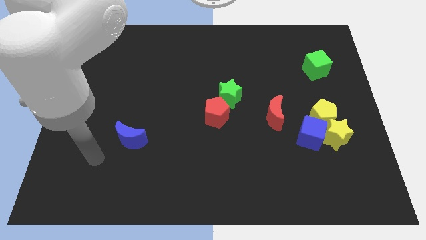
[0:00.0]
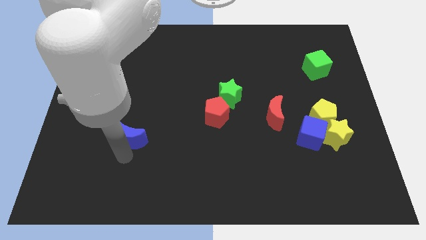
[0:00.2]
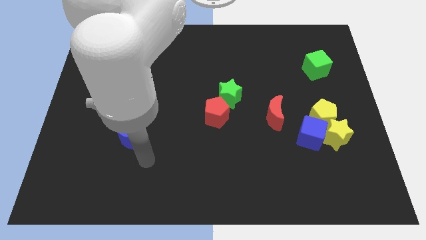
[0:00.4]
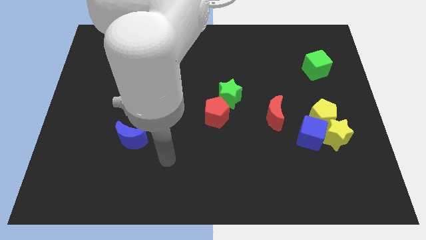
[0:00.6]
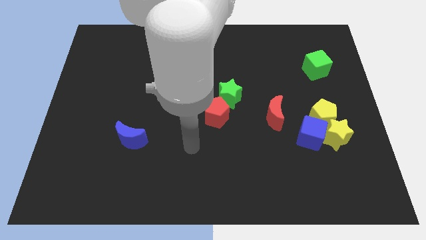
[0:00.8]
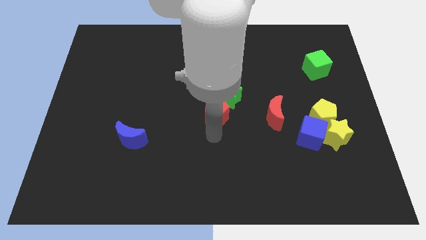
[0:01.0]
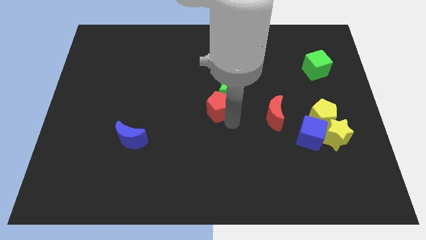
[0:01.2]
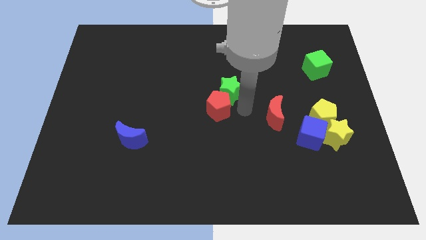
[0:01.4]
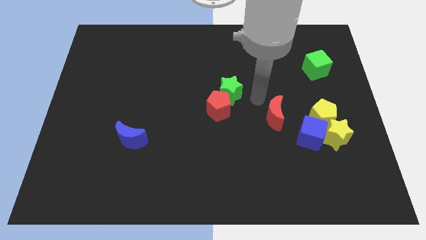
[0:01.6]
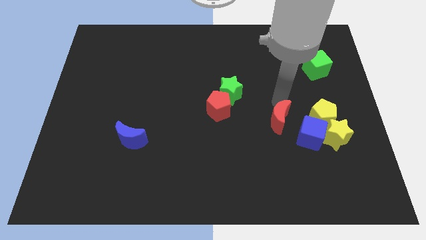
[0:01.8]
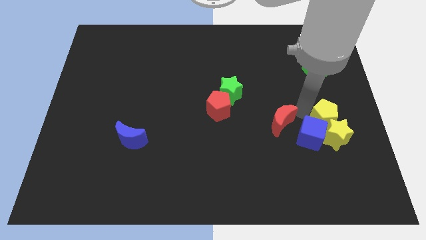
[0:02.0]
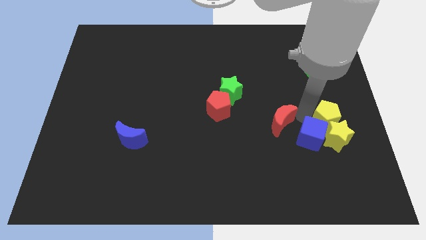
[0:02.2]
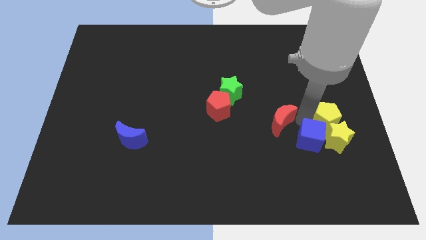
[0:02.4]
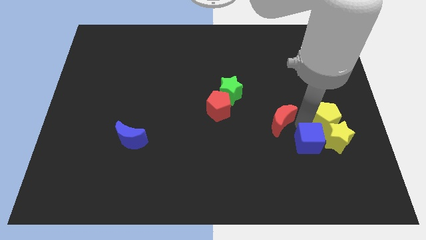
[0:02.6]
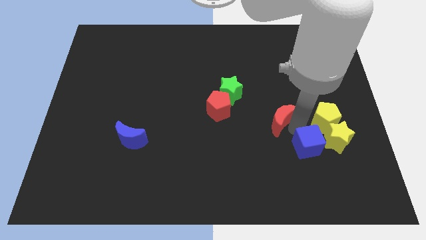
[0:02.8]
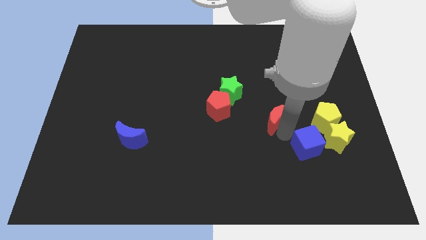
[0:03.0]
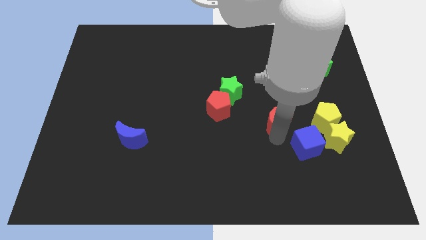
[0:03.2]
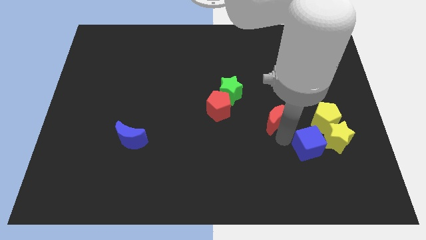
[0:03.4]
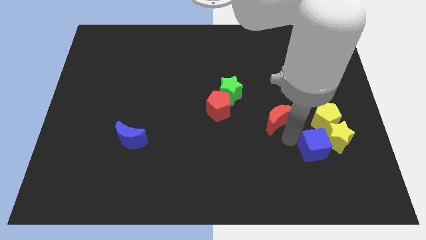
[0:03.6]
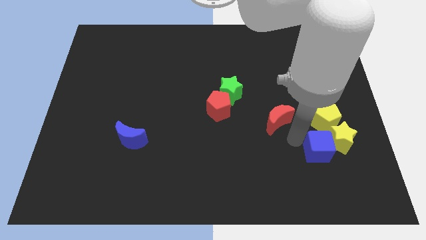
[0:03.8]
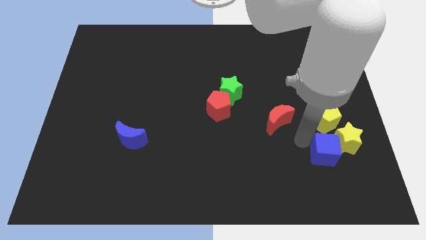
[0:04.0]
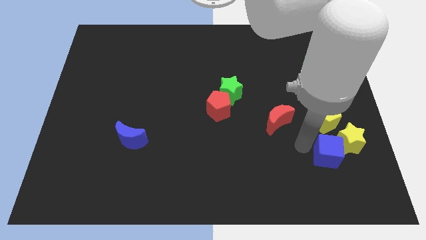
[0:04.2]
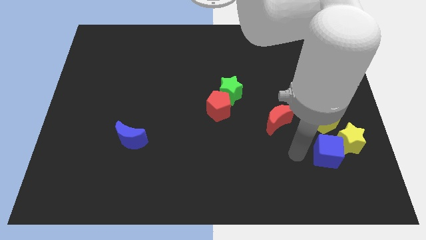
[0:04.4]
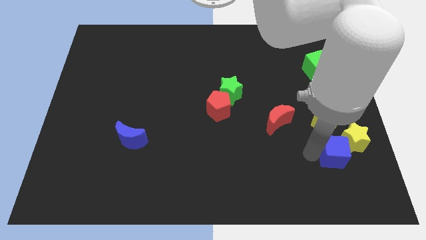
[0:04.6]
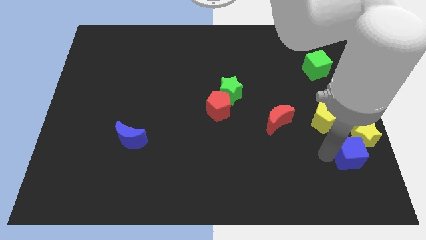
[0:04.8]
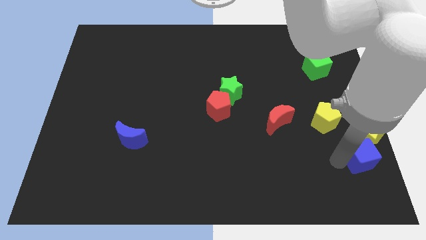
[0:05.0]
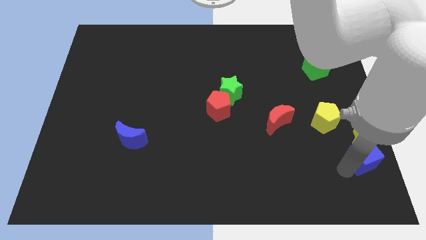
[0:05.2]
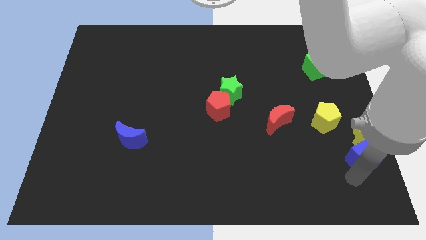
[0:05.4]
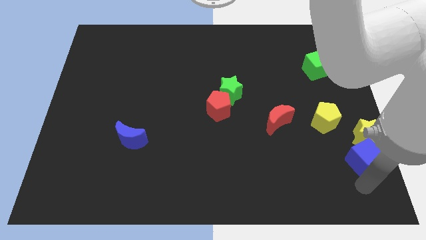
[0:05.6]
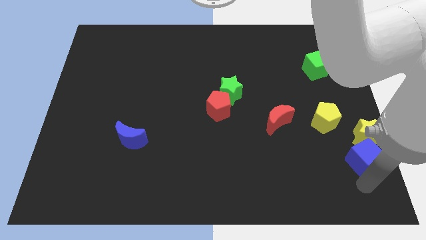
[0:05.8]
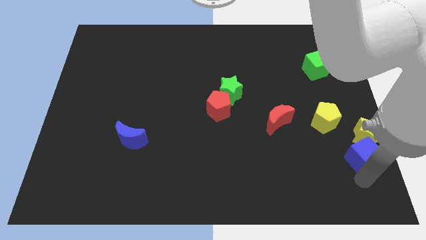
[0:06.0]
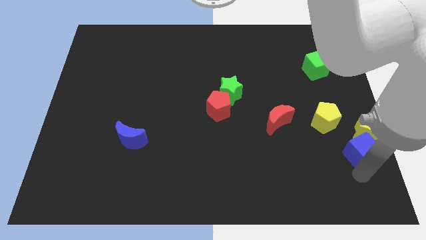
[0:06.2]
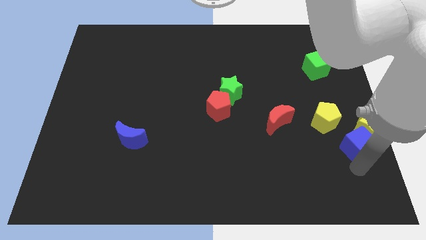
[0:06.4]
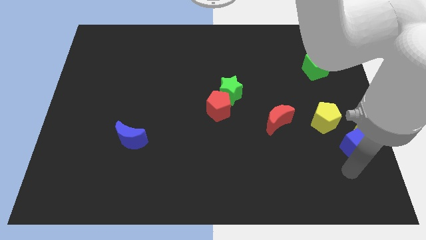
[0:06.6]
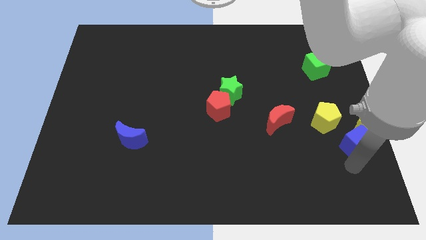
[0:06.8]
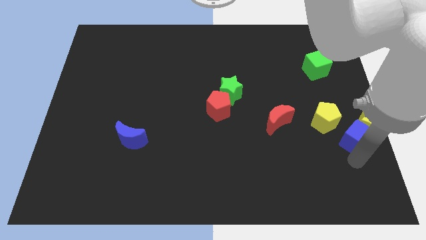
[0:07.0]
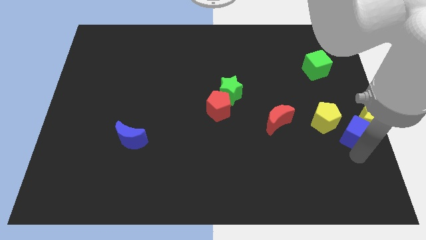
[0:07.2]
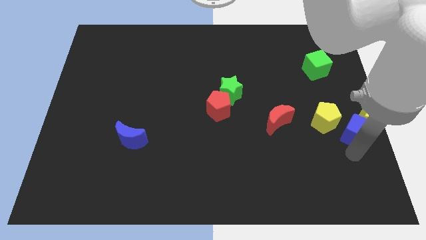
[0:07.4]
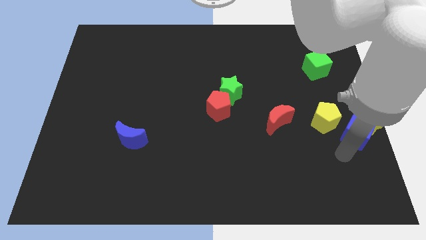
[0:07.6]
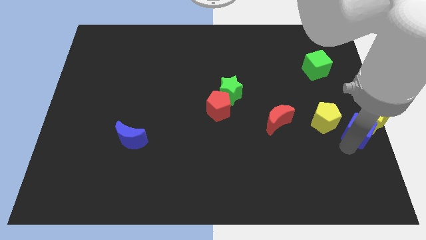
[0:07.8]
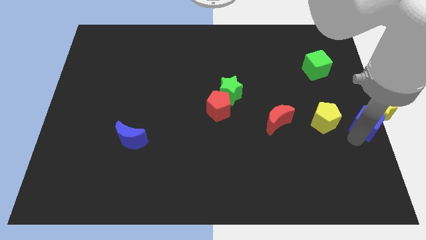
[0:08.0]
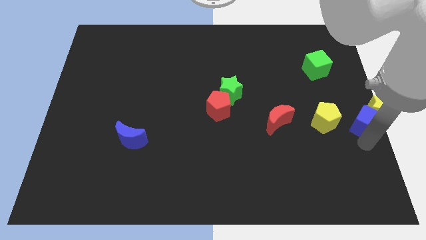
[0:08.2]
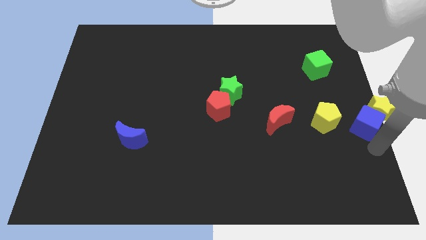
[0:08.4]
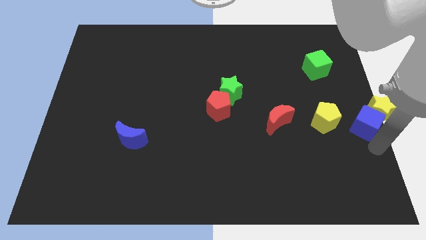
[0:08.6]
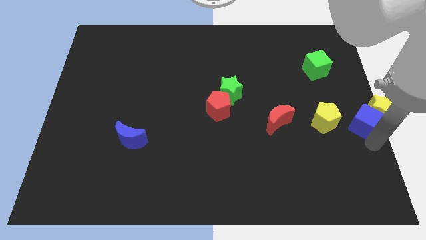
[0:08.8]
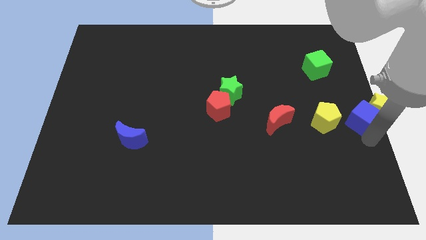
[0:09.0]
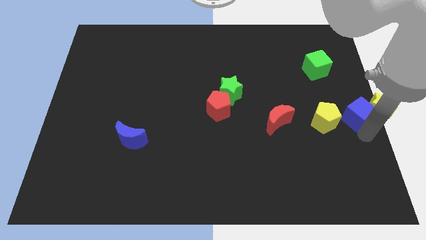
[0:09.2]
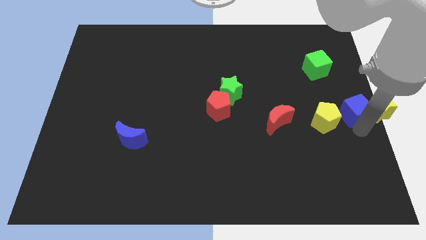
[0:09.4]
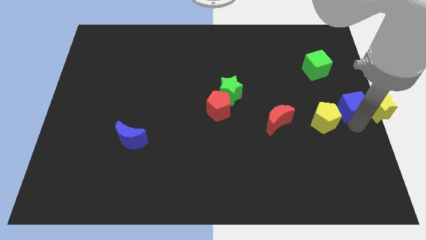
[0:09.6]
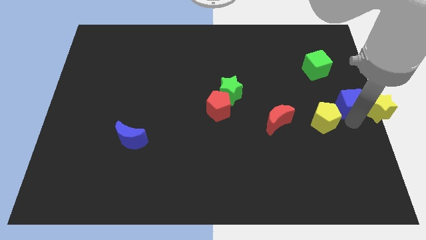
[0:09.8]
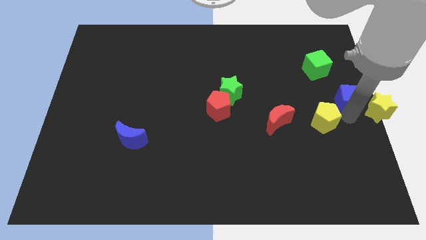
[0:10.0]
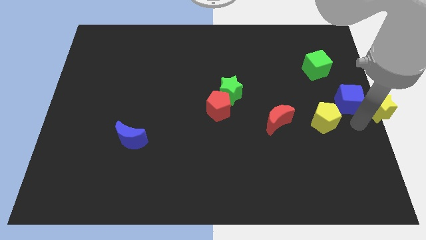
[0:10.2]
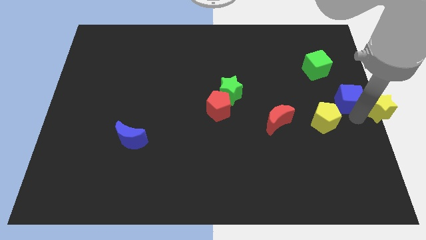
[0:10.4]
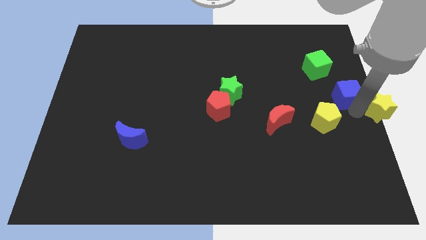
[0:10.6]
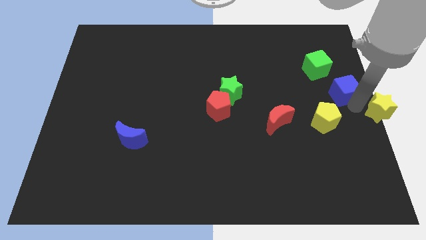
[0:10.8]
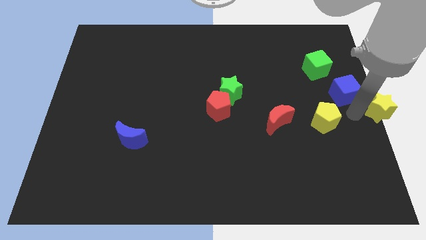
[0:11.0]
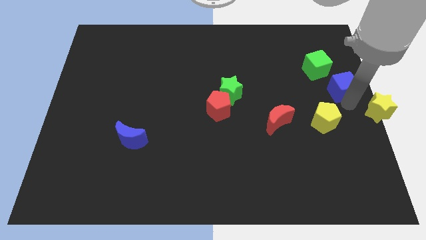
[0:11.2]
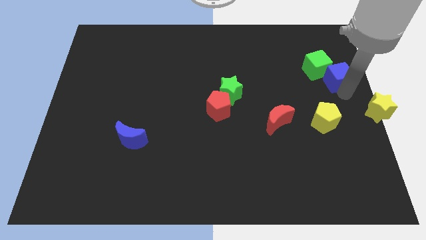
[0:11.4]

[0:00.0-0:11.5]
put the blue cube to the green cube

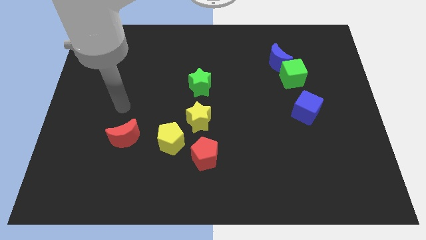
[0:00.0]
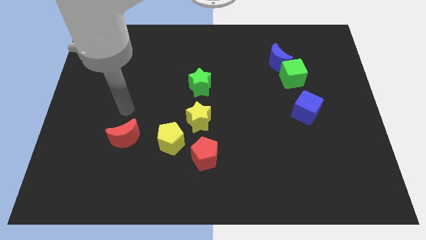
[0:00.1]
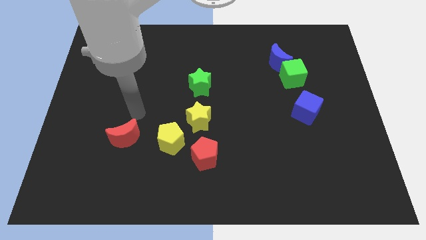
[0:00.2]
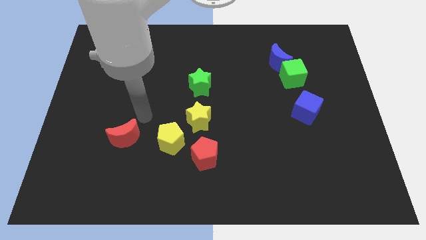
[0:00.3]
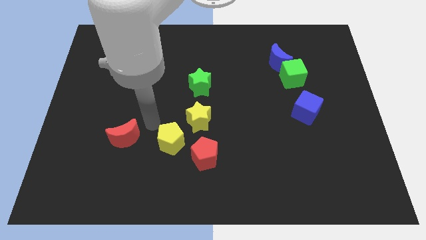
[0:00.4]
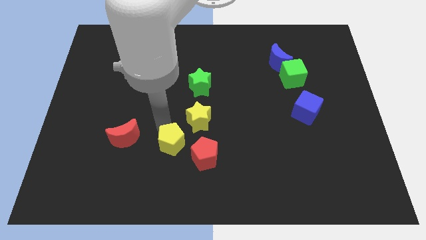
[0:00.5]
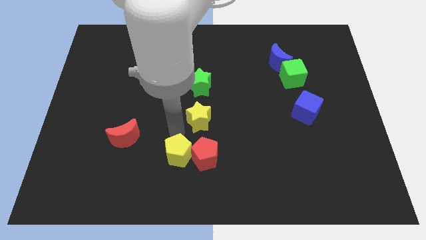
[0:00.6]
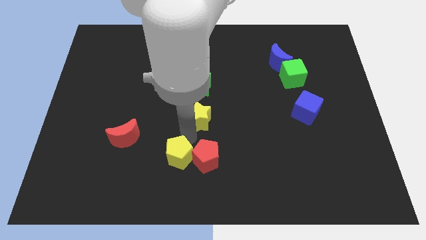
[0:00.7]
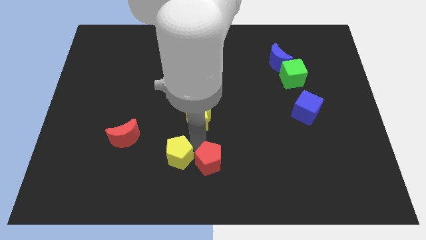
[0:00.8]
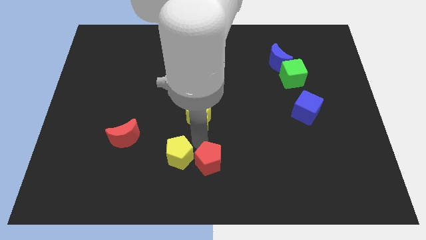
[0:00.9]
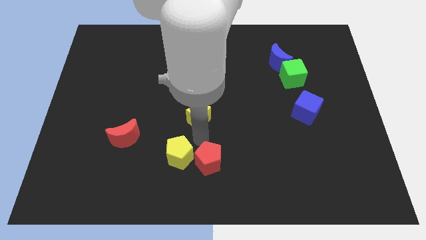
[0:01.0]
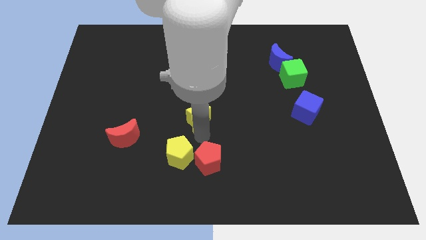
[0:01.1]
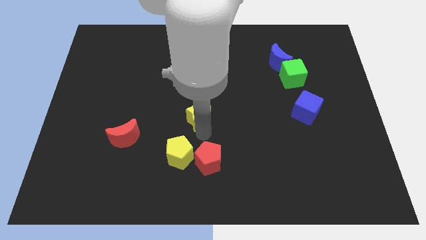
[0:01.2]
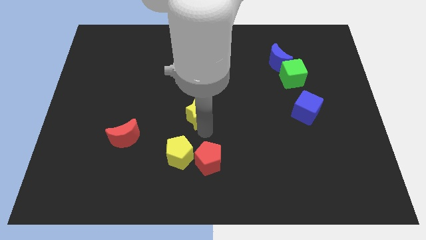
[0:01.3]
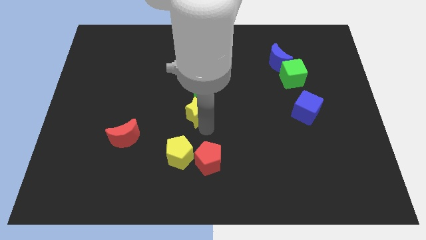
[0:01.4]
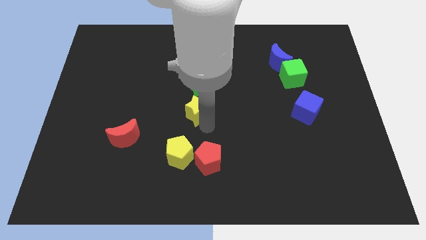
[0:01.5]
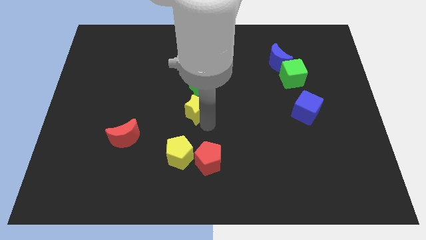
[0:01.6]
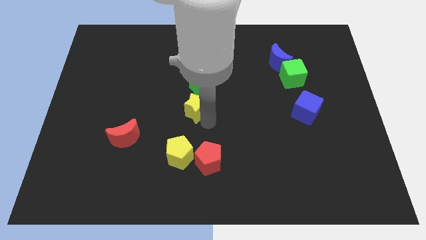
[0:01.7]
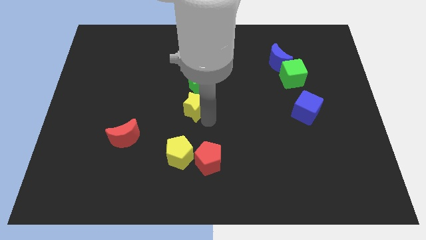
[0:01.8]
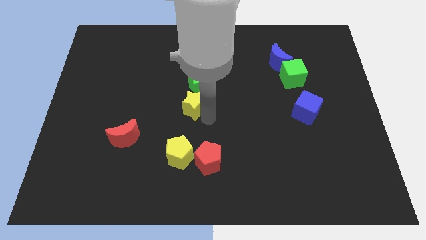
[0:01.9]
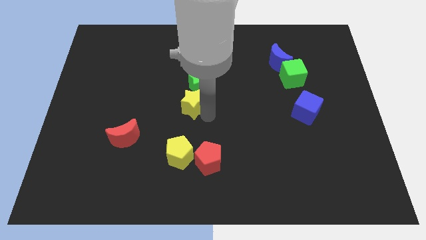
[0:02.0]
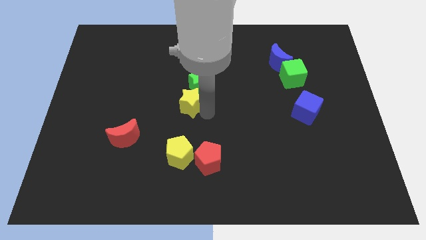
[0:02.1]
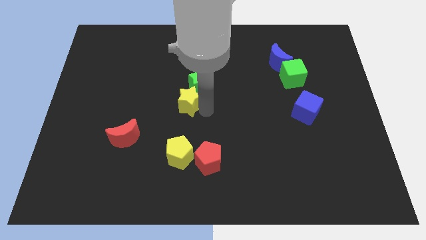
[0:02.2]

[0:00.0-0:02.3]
move the yellow star close to the green star
